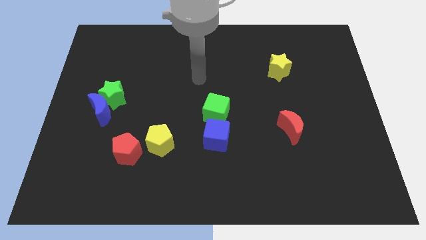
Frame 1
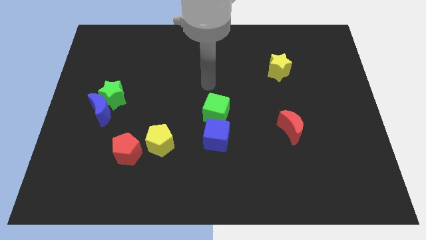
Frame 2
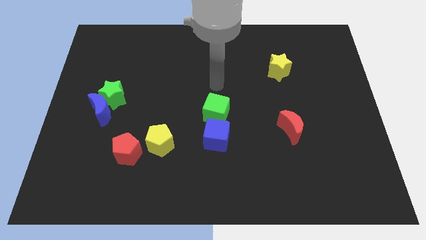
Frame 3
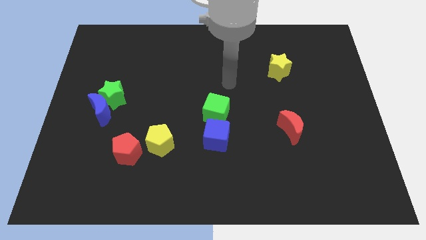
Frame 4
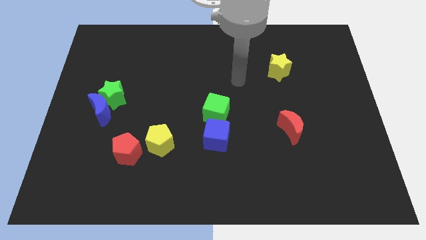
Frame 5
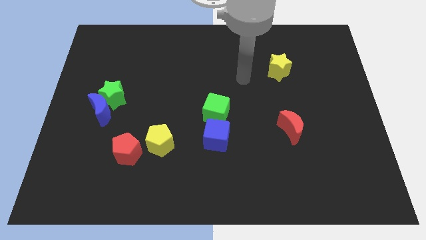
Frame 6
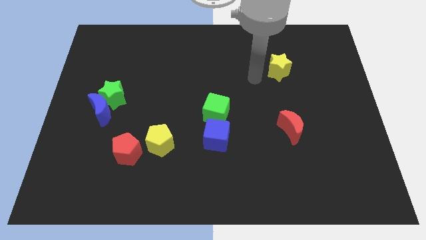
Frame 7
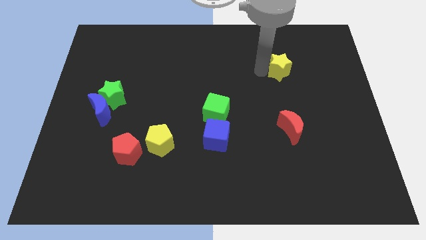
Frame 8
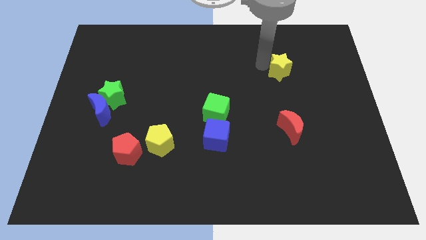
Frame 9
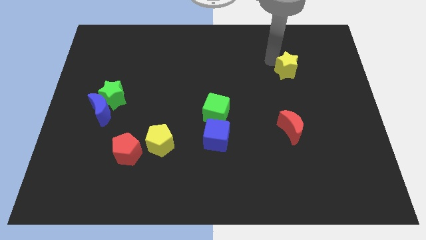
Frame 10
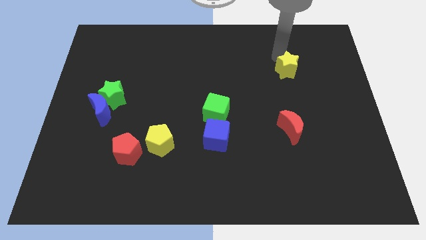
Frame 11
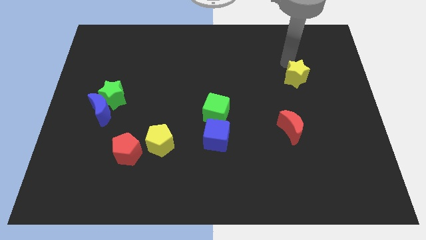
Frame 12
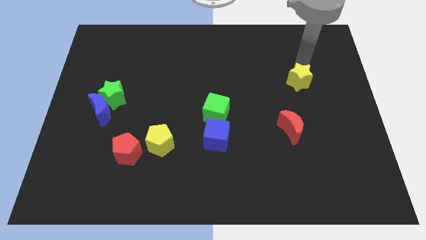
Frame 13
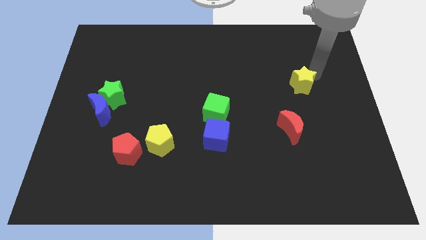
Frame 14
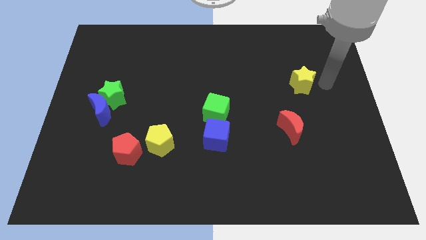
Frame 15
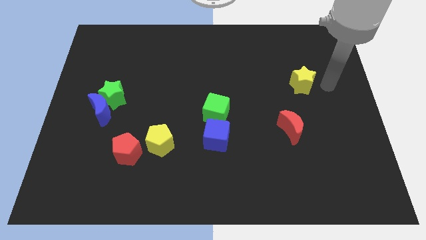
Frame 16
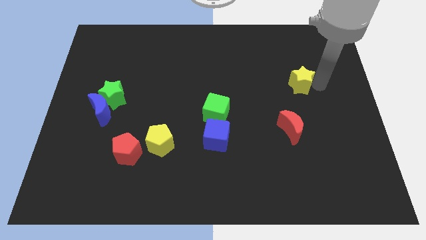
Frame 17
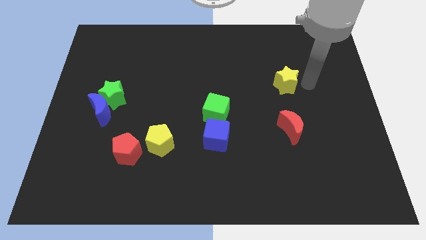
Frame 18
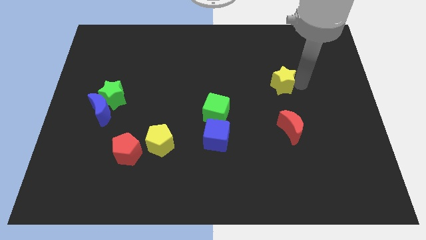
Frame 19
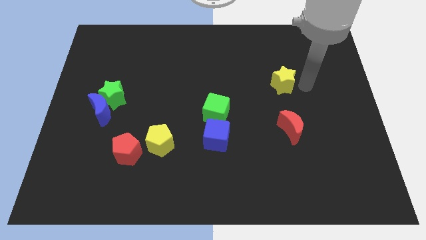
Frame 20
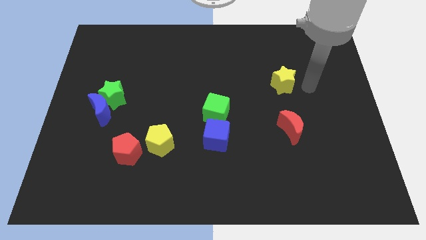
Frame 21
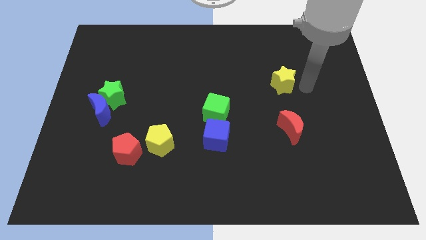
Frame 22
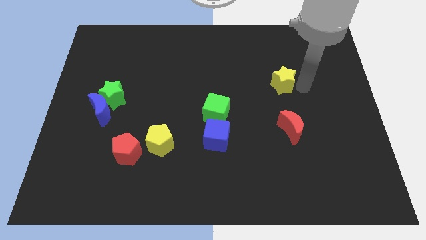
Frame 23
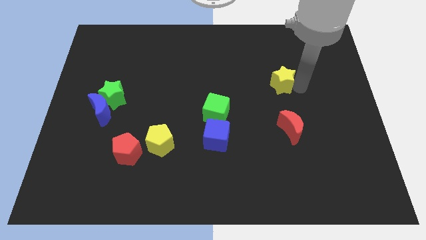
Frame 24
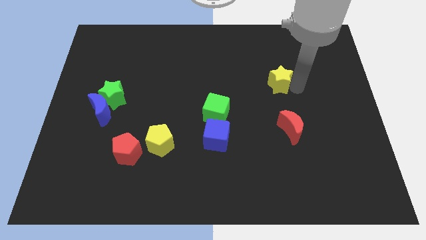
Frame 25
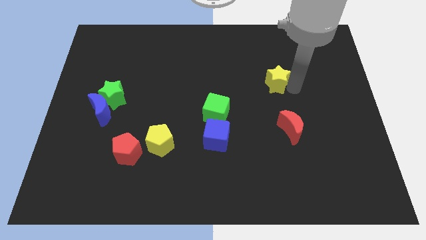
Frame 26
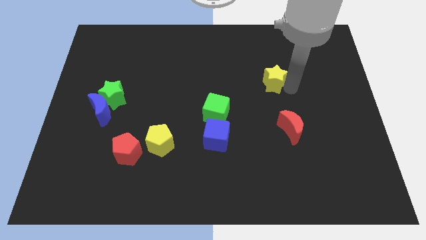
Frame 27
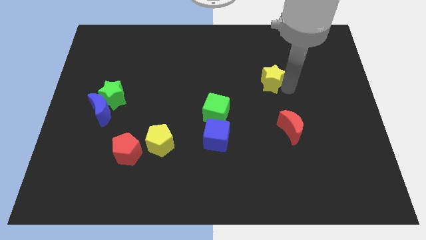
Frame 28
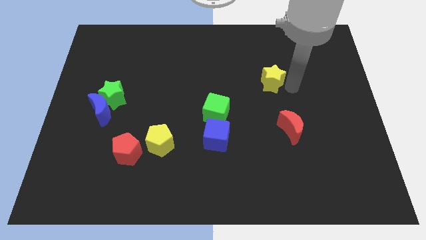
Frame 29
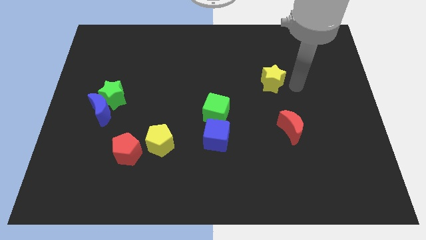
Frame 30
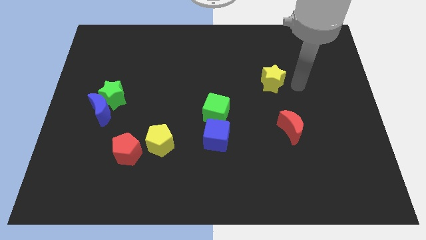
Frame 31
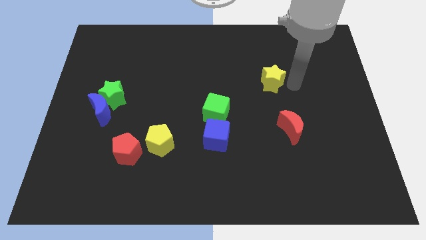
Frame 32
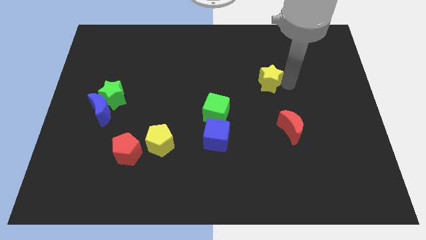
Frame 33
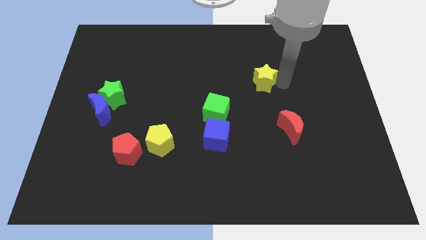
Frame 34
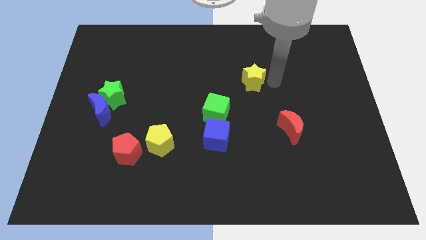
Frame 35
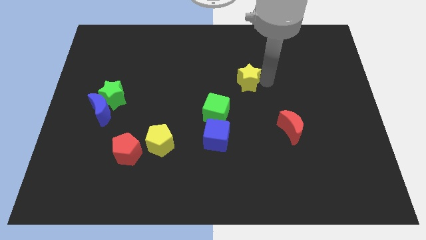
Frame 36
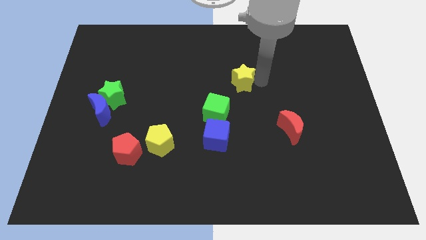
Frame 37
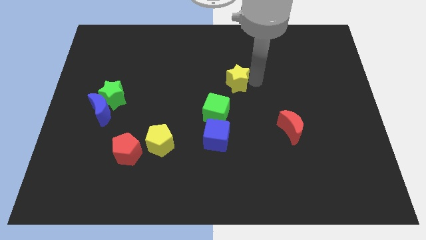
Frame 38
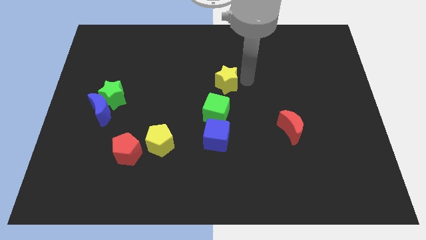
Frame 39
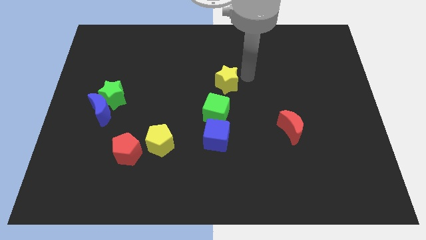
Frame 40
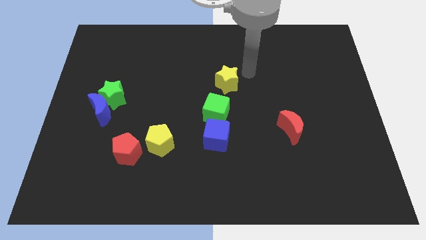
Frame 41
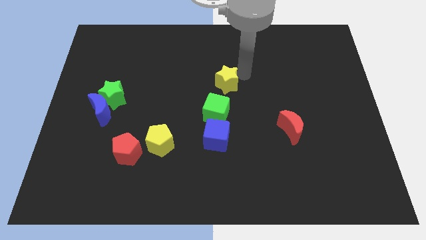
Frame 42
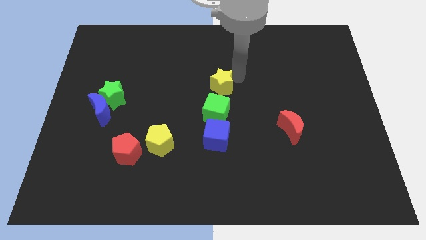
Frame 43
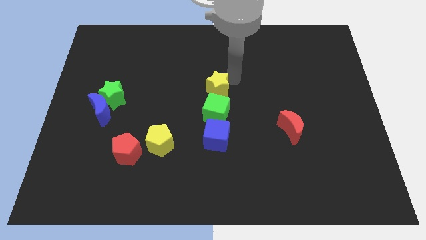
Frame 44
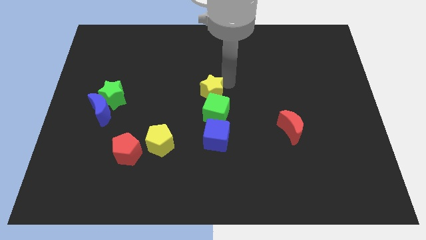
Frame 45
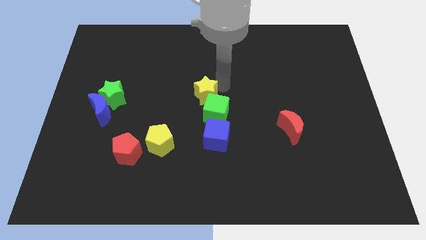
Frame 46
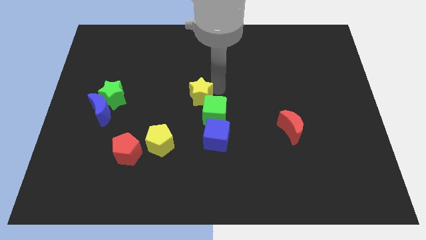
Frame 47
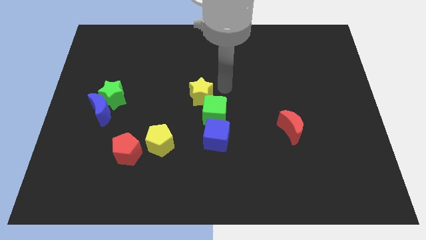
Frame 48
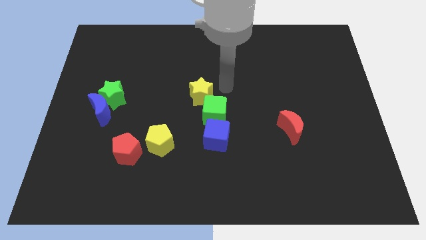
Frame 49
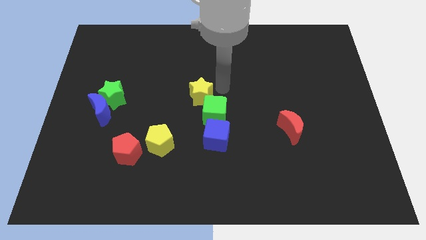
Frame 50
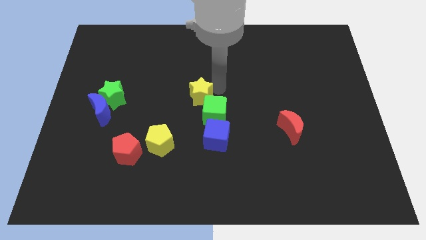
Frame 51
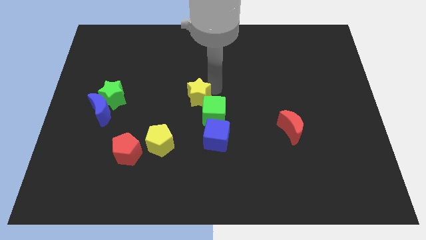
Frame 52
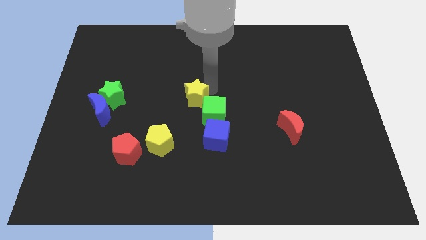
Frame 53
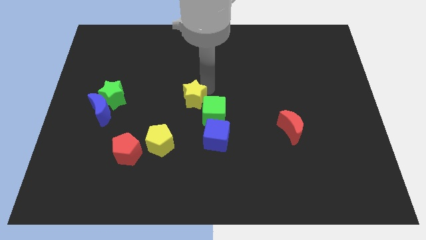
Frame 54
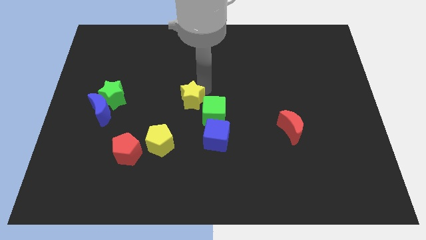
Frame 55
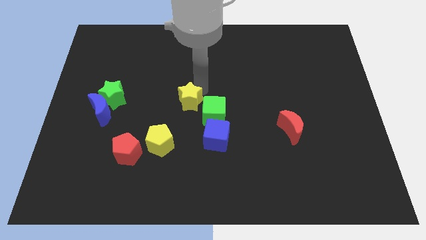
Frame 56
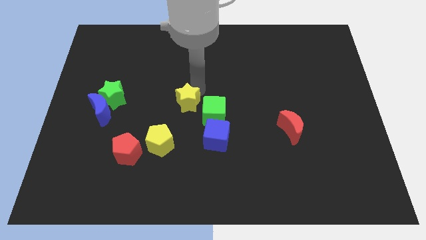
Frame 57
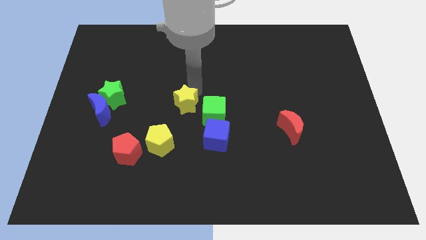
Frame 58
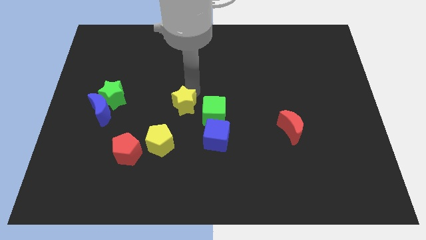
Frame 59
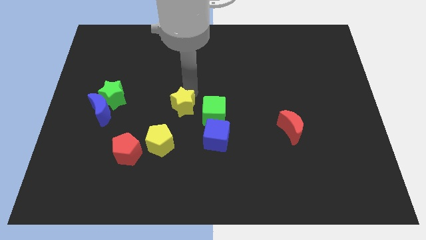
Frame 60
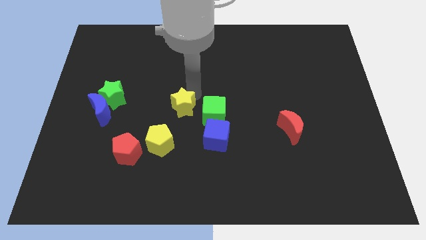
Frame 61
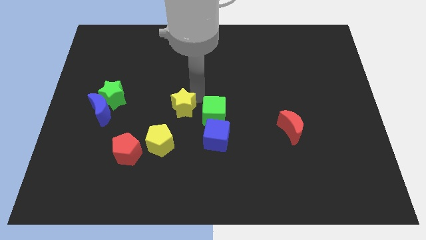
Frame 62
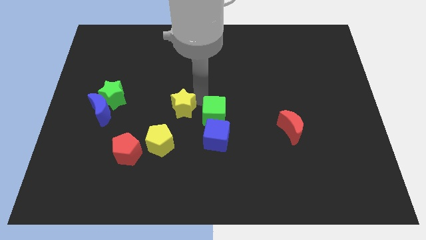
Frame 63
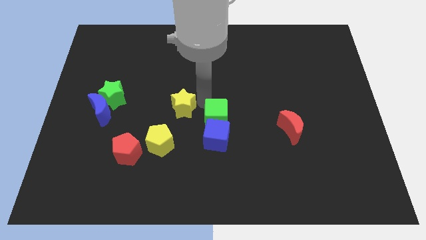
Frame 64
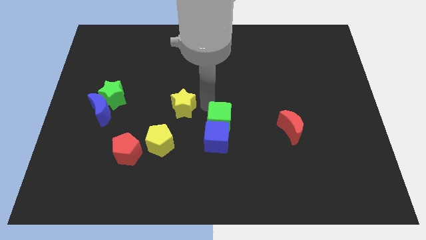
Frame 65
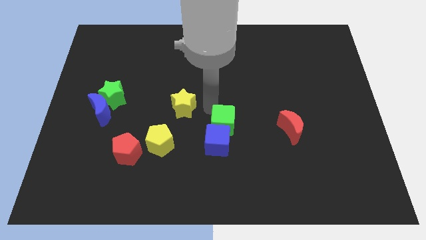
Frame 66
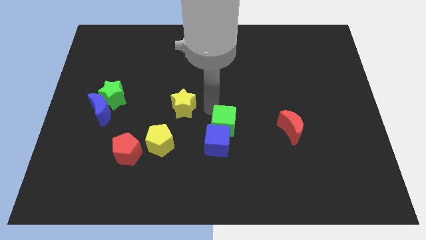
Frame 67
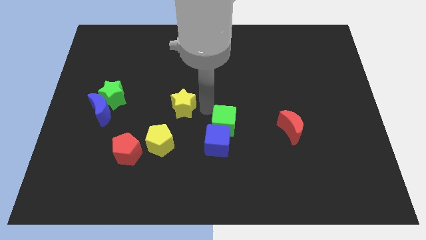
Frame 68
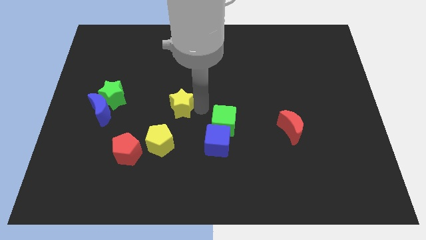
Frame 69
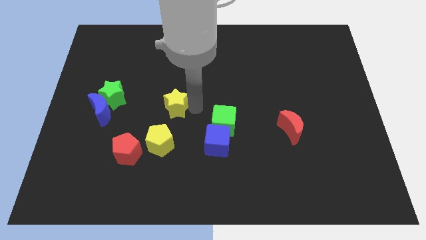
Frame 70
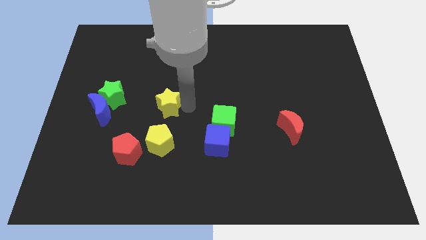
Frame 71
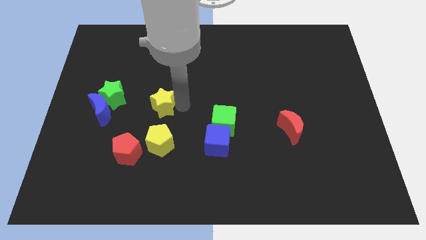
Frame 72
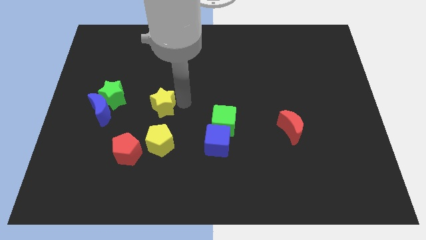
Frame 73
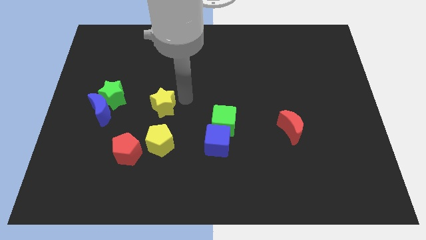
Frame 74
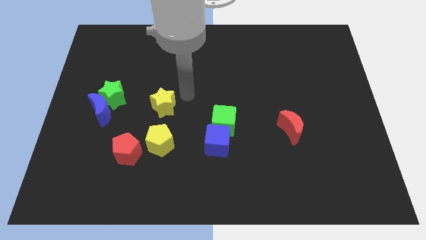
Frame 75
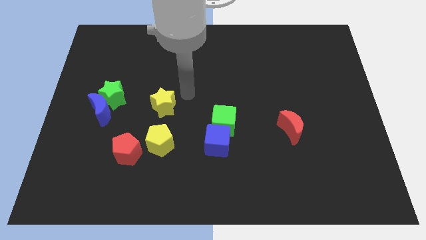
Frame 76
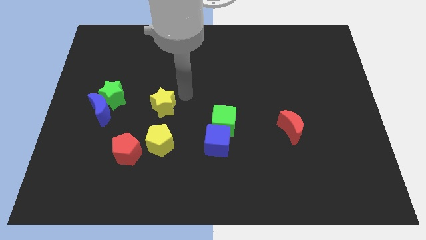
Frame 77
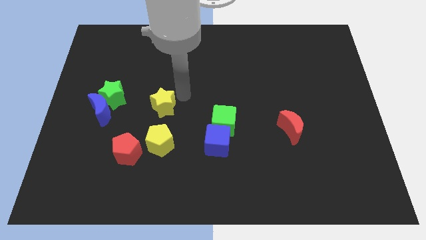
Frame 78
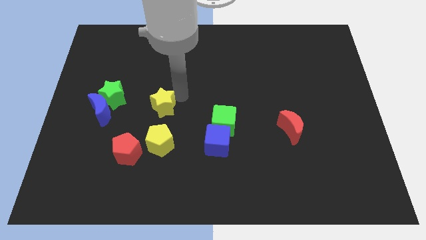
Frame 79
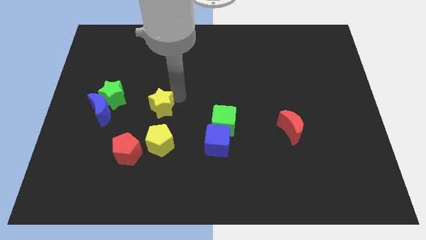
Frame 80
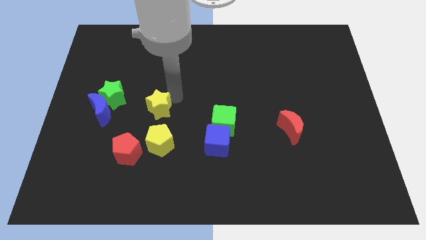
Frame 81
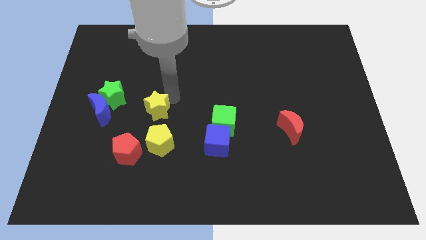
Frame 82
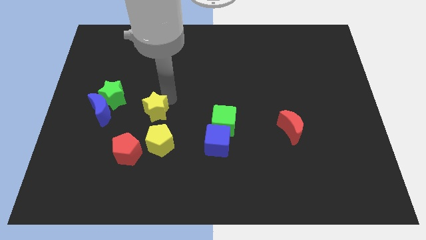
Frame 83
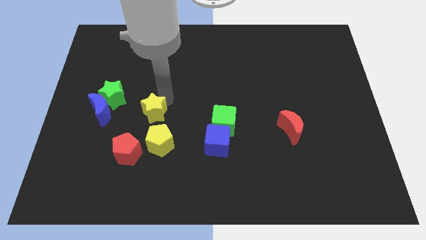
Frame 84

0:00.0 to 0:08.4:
push the yellow star to the top left side of the yellow pentagon
